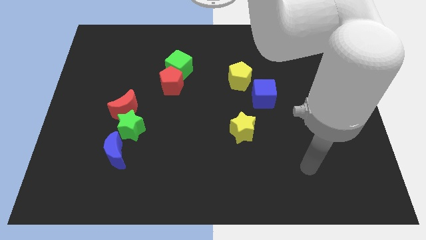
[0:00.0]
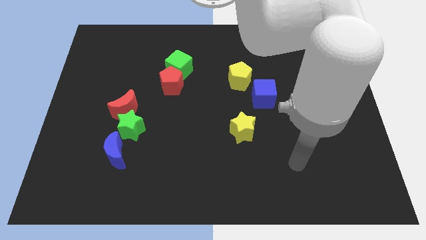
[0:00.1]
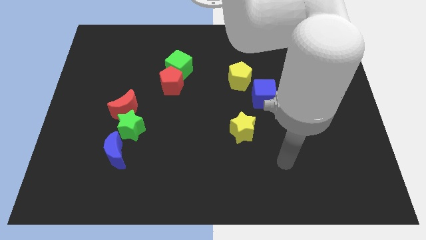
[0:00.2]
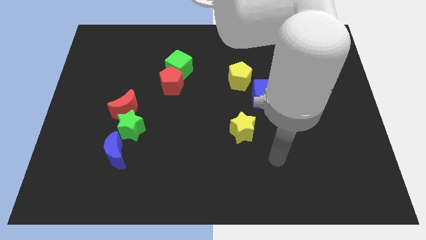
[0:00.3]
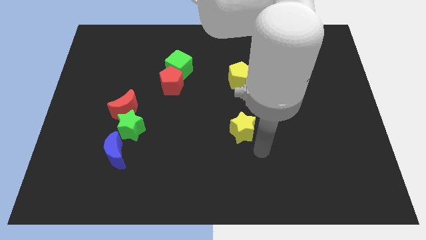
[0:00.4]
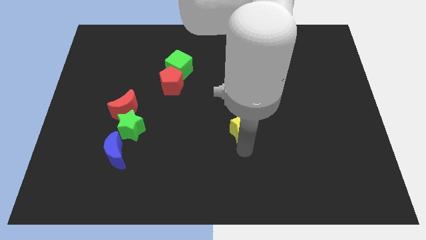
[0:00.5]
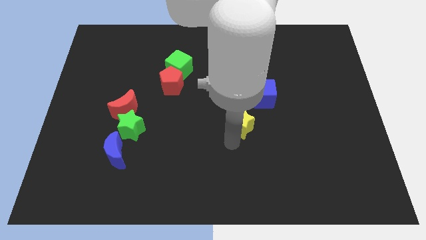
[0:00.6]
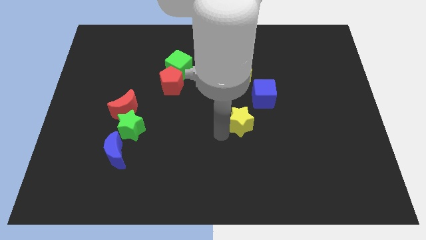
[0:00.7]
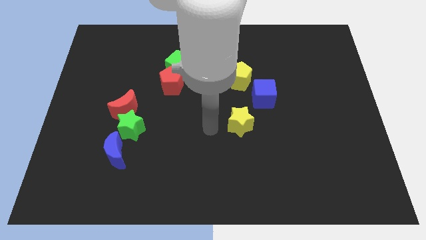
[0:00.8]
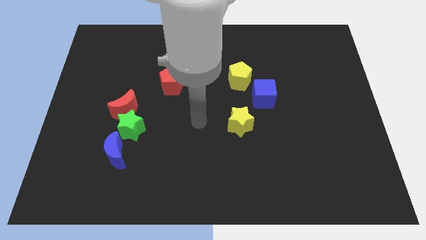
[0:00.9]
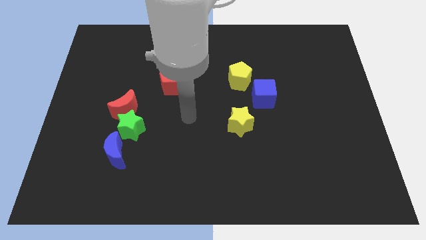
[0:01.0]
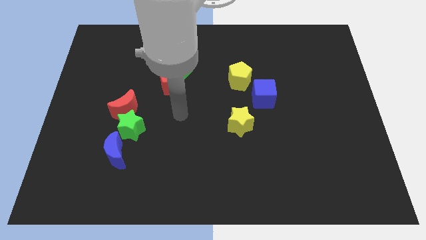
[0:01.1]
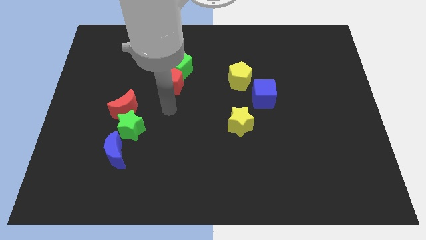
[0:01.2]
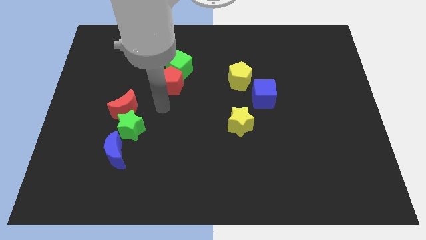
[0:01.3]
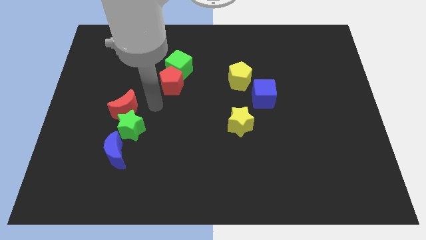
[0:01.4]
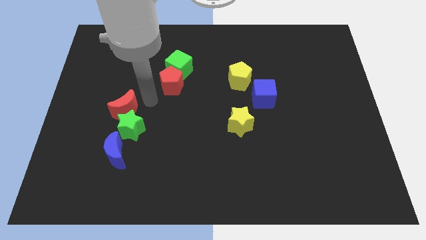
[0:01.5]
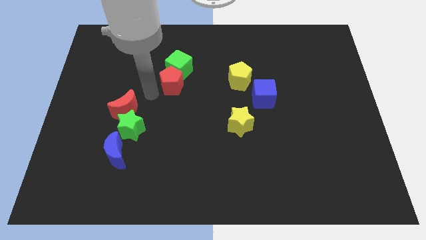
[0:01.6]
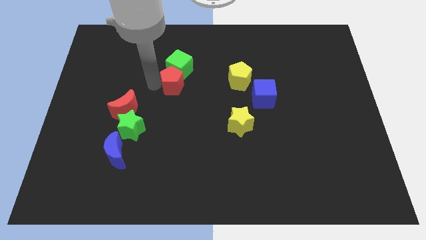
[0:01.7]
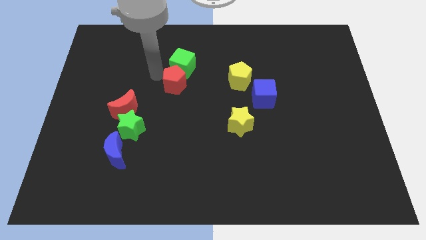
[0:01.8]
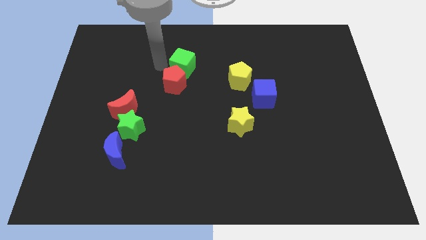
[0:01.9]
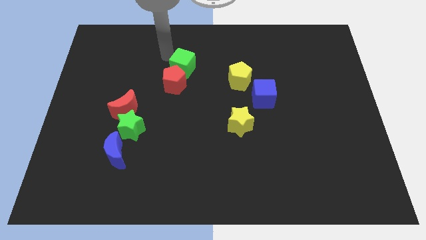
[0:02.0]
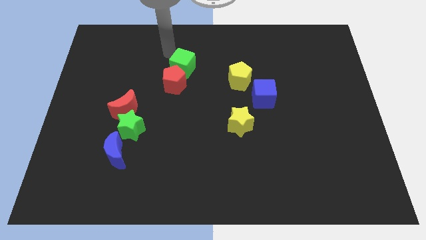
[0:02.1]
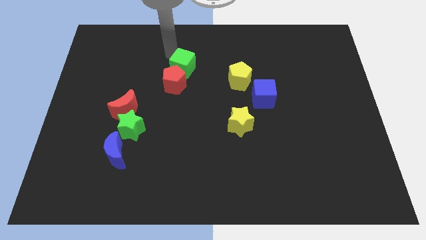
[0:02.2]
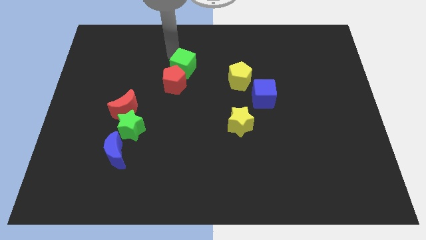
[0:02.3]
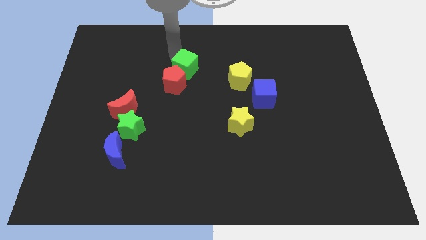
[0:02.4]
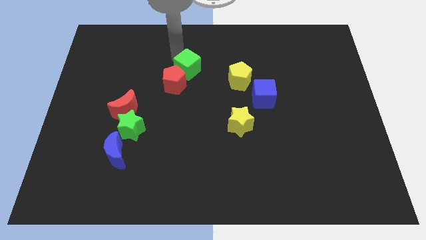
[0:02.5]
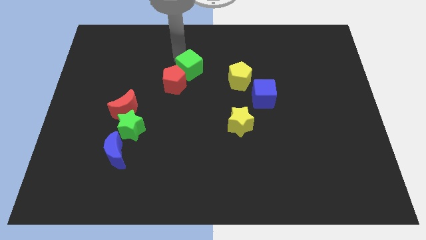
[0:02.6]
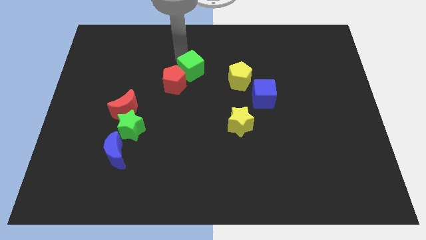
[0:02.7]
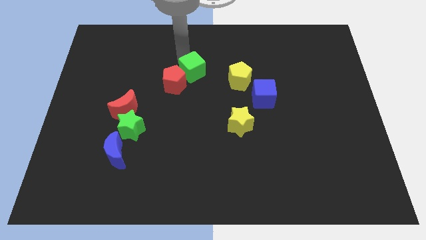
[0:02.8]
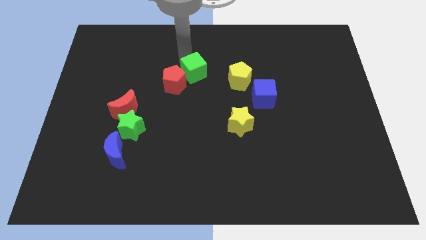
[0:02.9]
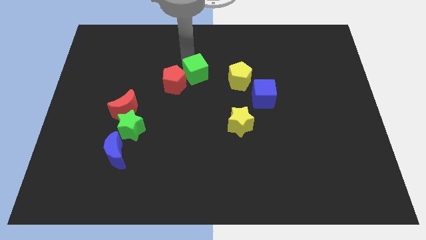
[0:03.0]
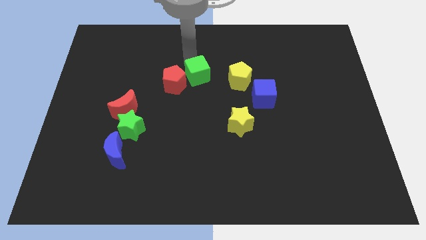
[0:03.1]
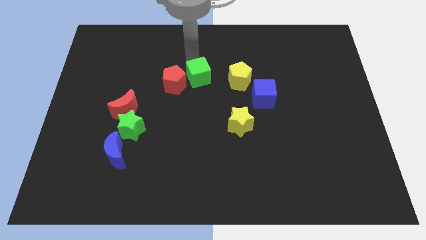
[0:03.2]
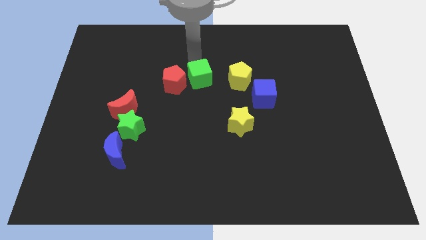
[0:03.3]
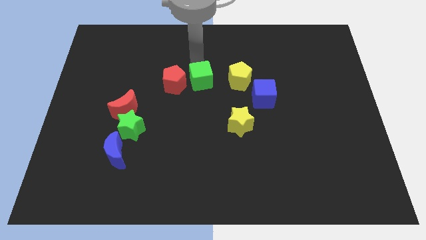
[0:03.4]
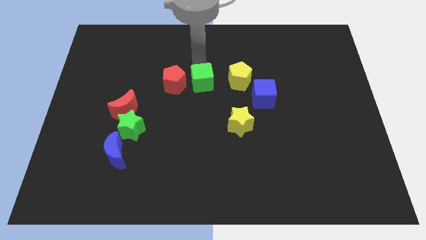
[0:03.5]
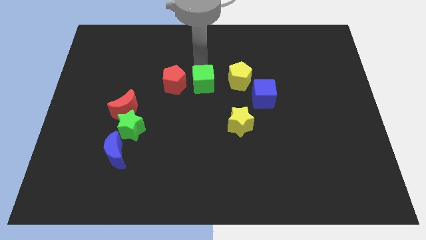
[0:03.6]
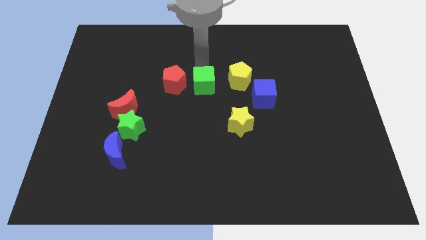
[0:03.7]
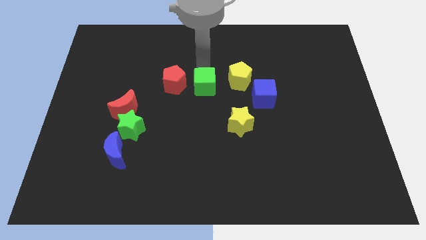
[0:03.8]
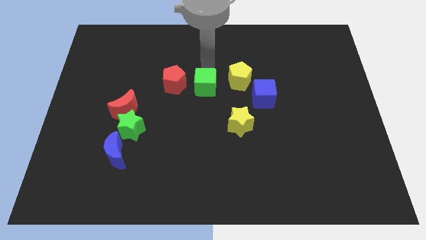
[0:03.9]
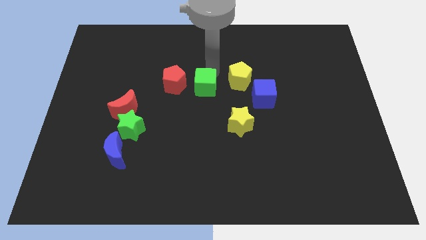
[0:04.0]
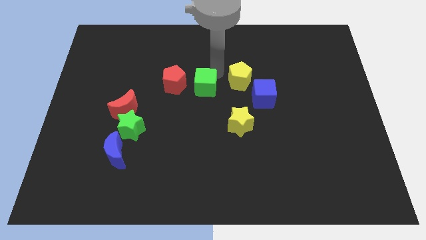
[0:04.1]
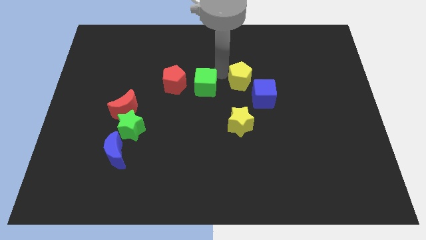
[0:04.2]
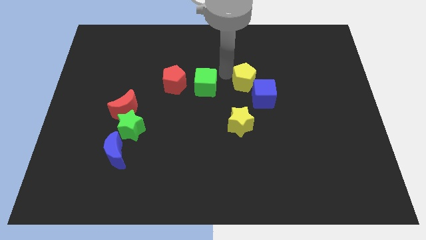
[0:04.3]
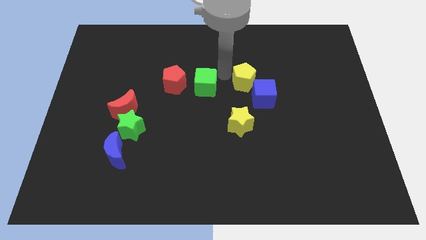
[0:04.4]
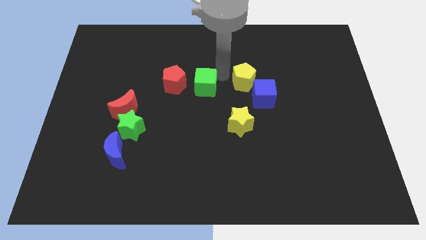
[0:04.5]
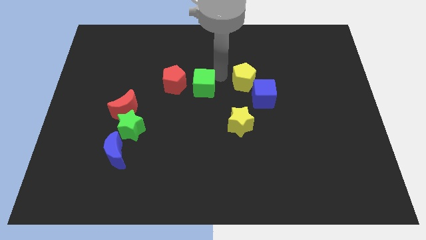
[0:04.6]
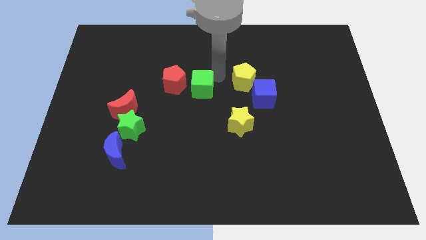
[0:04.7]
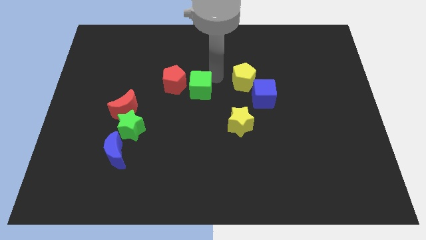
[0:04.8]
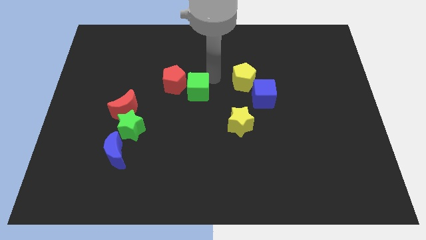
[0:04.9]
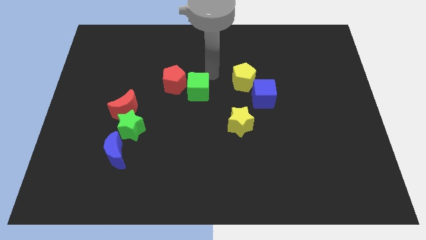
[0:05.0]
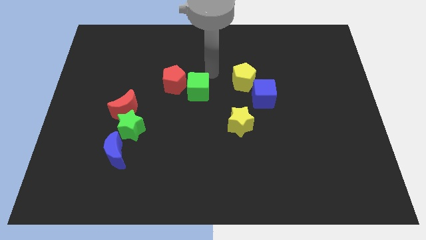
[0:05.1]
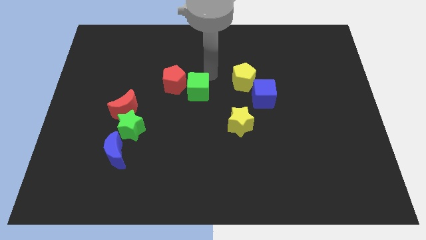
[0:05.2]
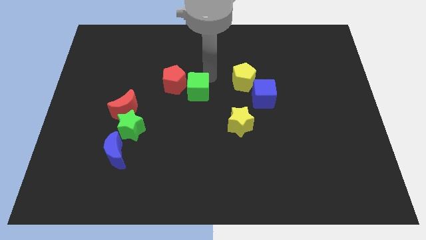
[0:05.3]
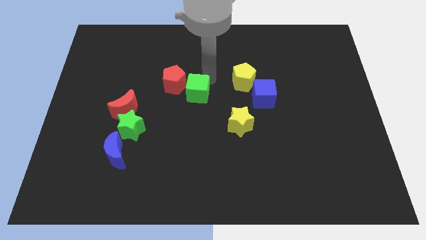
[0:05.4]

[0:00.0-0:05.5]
slightly move the green cube down

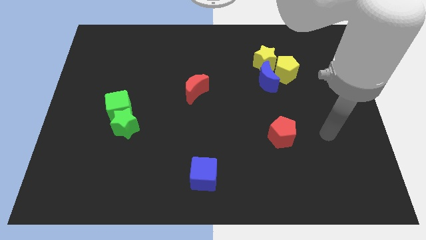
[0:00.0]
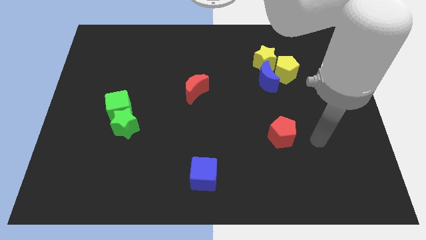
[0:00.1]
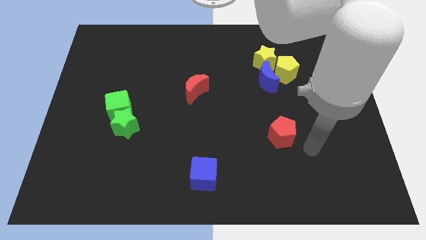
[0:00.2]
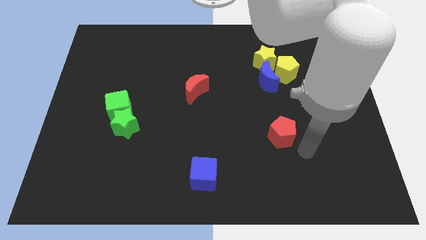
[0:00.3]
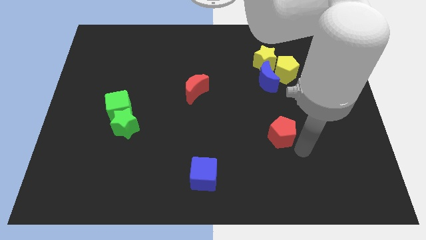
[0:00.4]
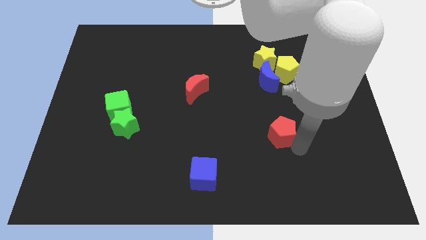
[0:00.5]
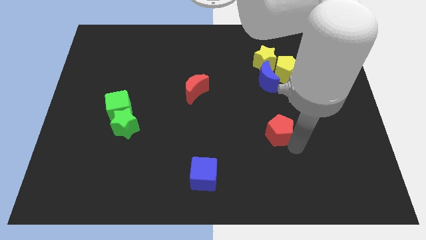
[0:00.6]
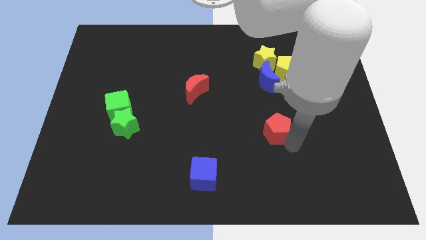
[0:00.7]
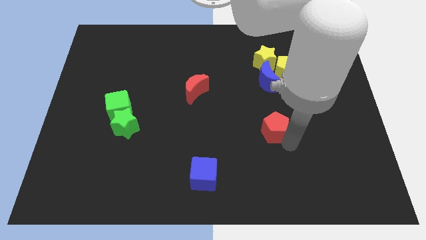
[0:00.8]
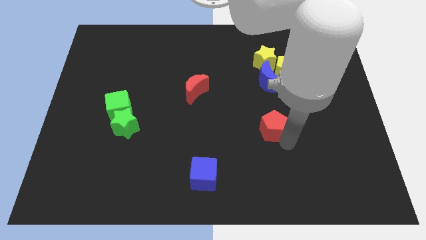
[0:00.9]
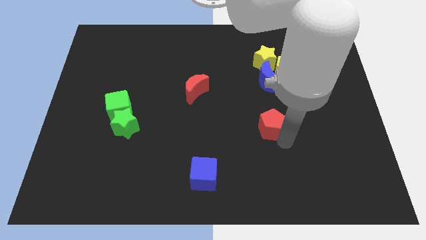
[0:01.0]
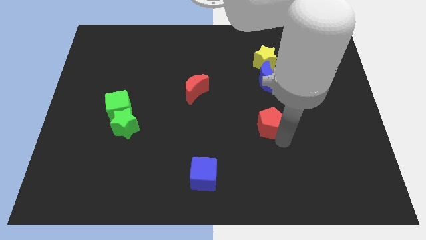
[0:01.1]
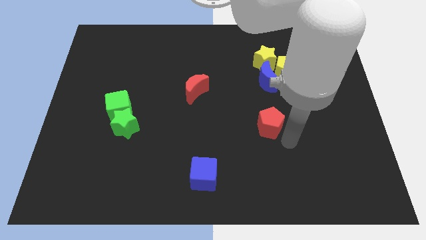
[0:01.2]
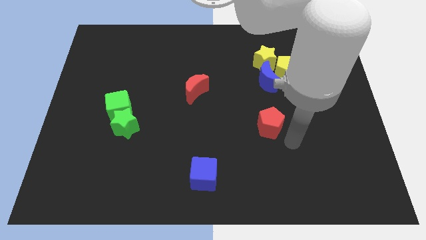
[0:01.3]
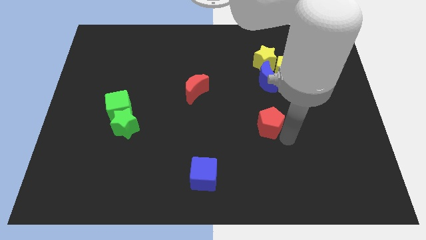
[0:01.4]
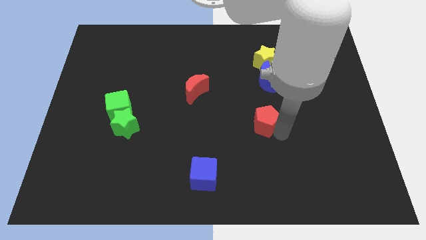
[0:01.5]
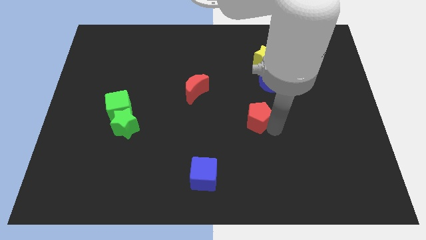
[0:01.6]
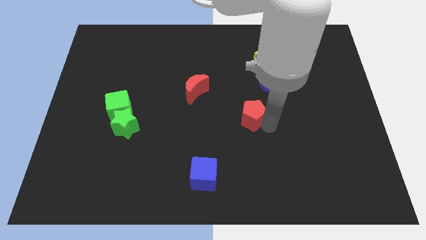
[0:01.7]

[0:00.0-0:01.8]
push the red pentagon upwards and to the left diagonally a little bit

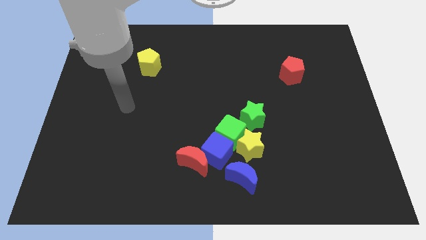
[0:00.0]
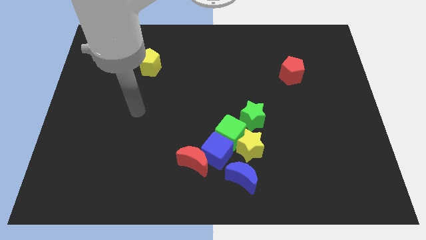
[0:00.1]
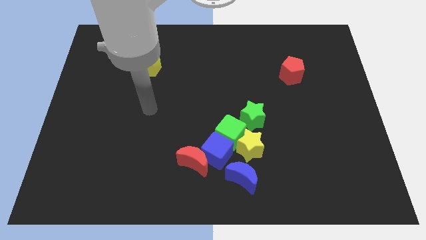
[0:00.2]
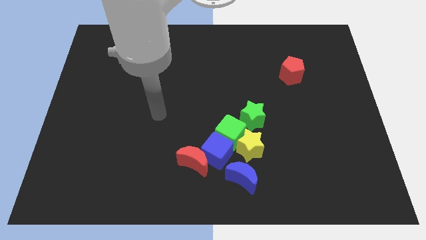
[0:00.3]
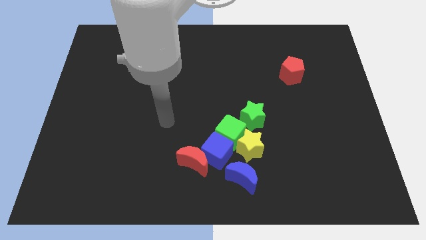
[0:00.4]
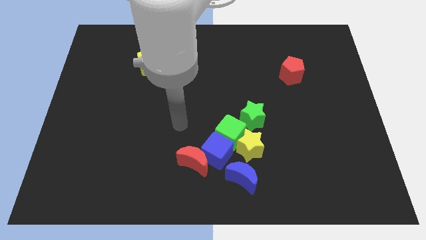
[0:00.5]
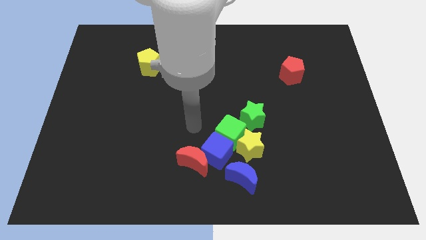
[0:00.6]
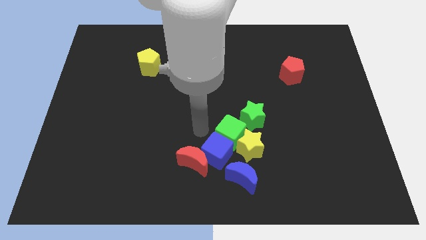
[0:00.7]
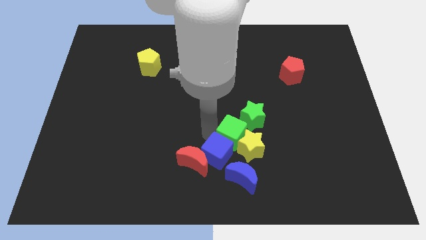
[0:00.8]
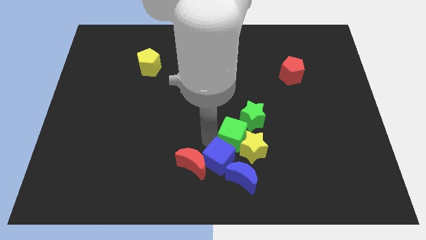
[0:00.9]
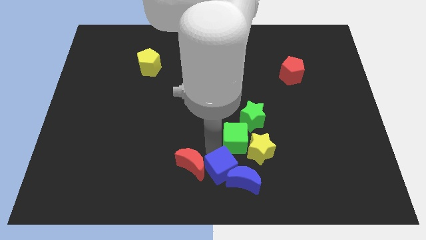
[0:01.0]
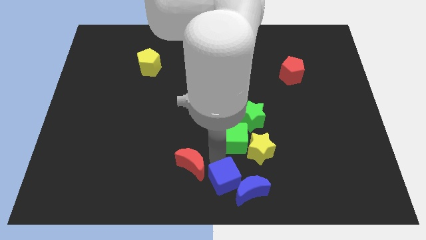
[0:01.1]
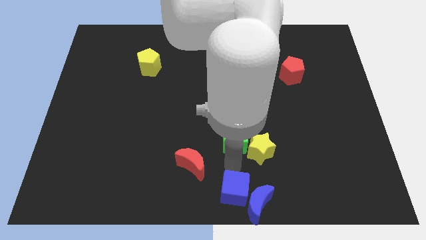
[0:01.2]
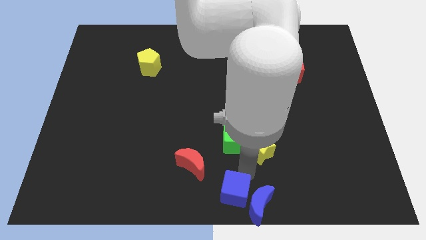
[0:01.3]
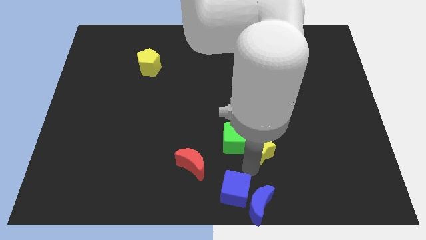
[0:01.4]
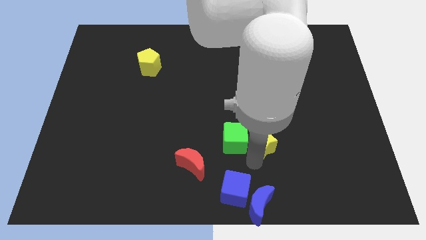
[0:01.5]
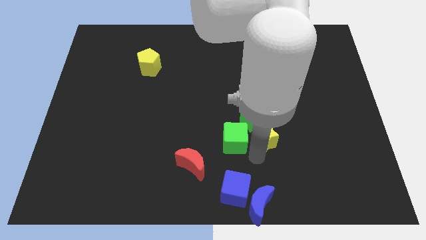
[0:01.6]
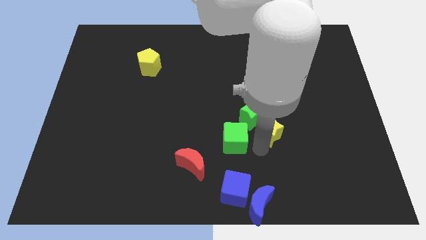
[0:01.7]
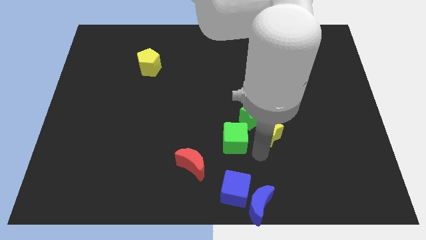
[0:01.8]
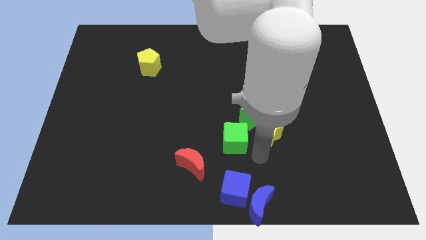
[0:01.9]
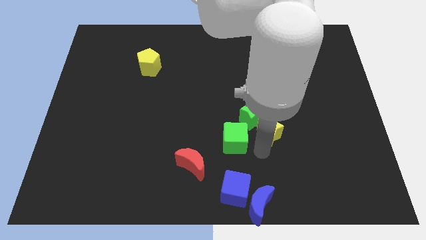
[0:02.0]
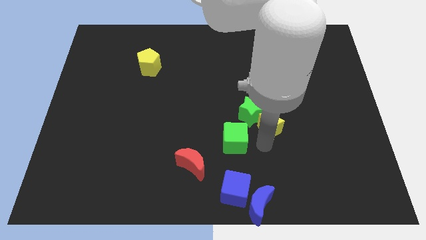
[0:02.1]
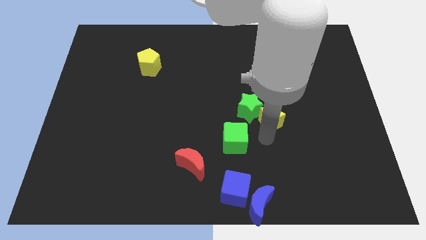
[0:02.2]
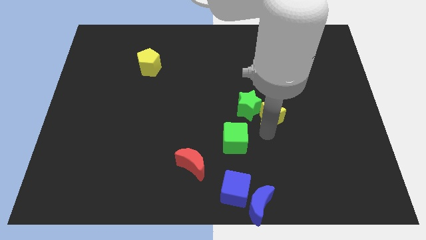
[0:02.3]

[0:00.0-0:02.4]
slightly move the yellow star upwards
